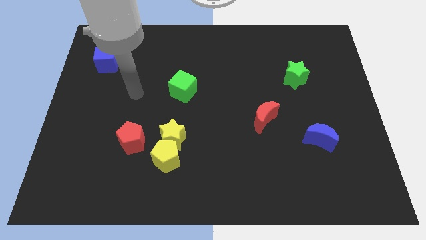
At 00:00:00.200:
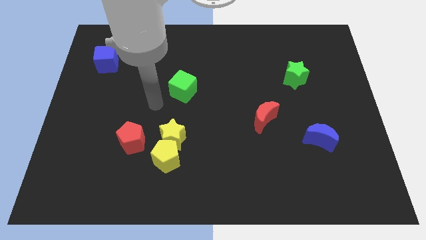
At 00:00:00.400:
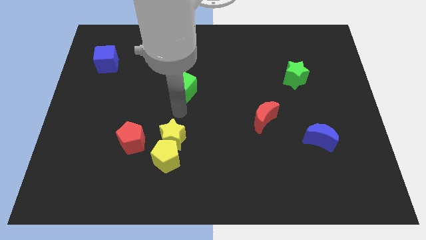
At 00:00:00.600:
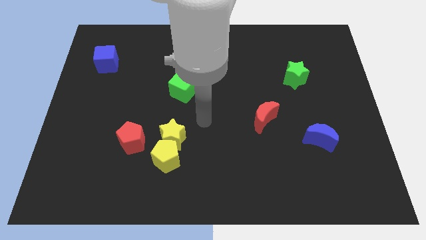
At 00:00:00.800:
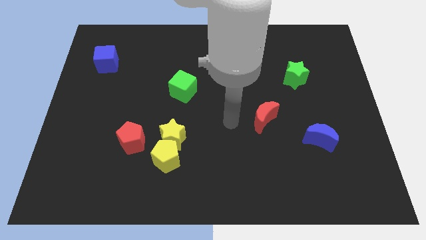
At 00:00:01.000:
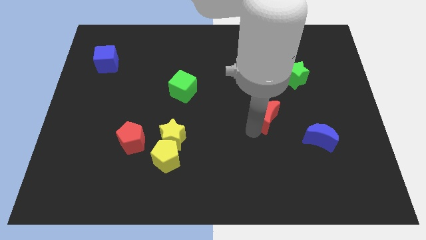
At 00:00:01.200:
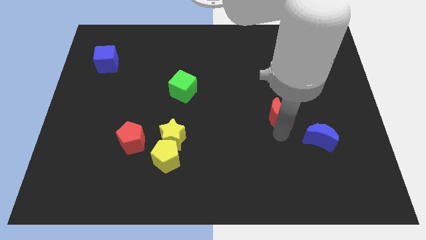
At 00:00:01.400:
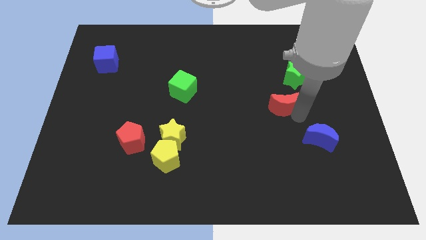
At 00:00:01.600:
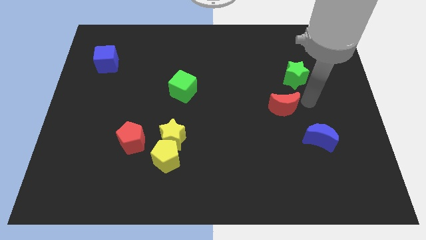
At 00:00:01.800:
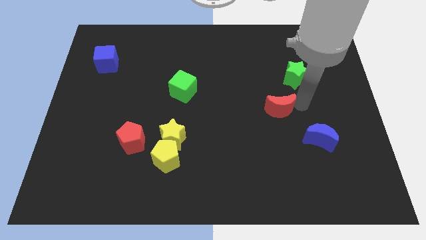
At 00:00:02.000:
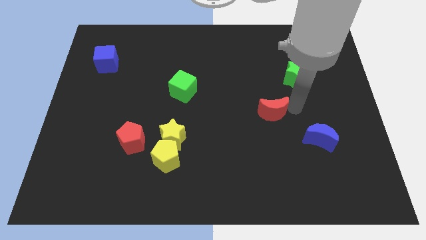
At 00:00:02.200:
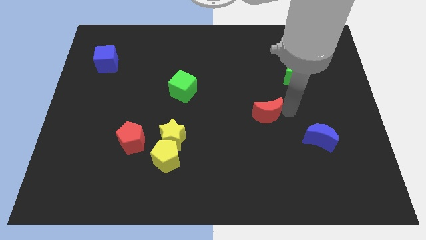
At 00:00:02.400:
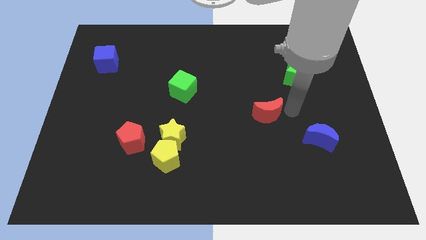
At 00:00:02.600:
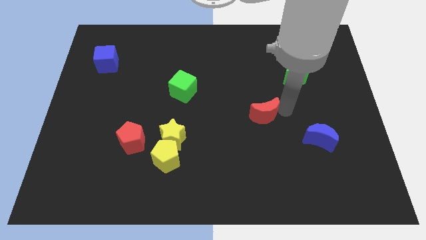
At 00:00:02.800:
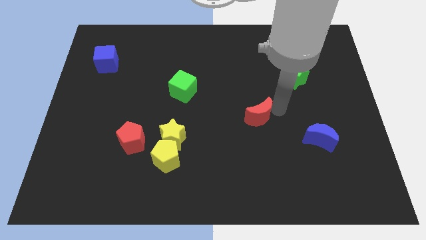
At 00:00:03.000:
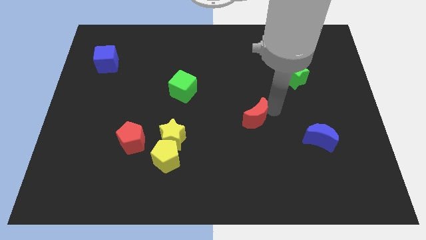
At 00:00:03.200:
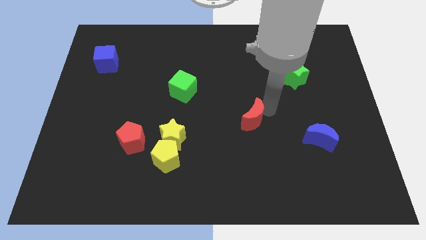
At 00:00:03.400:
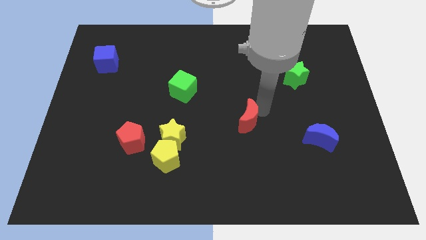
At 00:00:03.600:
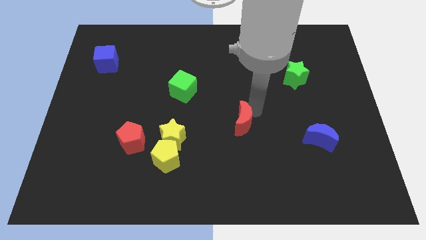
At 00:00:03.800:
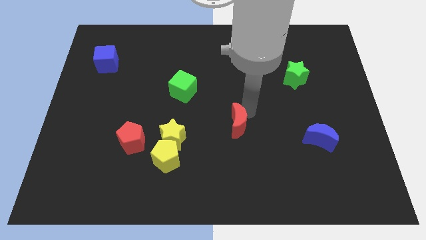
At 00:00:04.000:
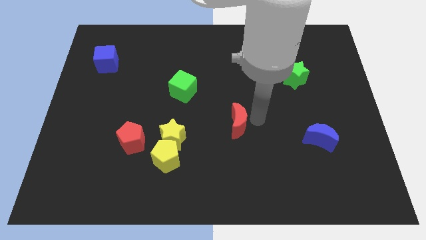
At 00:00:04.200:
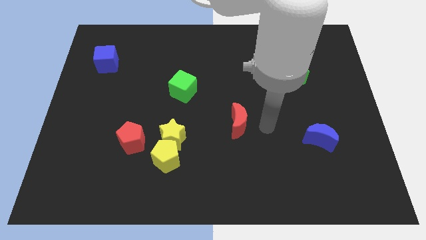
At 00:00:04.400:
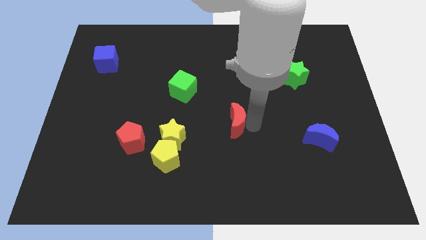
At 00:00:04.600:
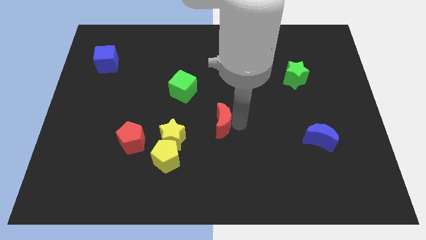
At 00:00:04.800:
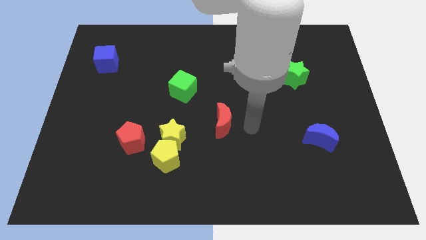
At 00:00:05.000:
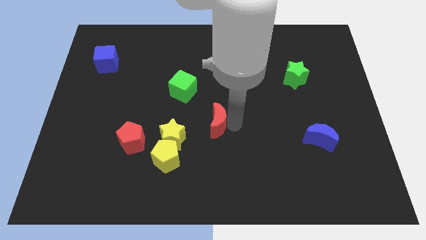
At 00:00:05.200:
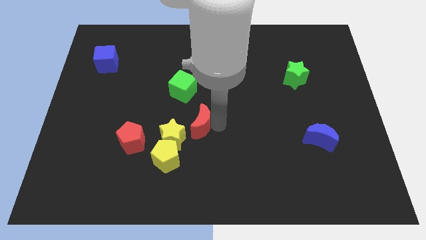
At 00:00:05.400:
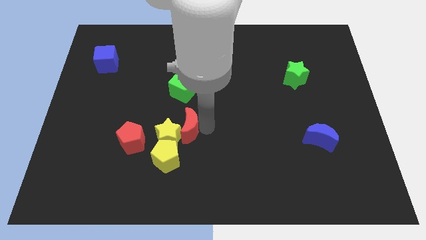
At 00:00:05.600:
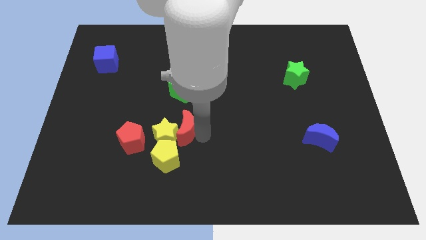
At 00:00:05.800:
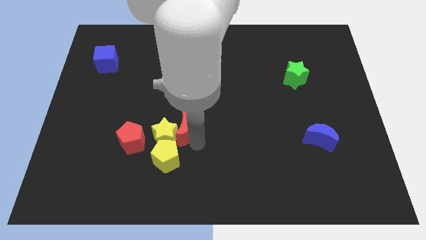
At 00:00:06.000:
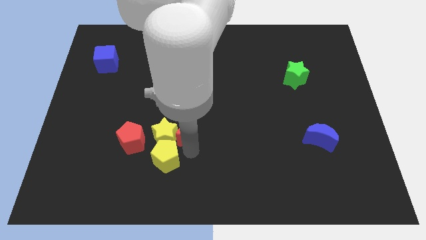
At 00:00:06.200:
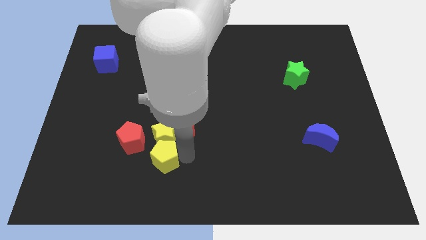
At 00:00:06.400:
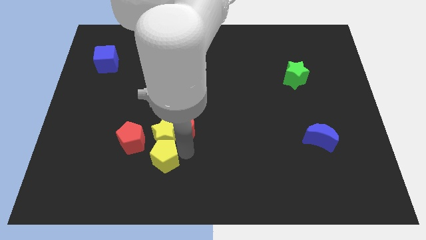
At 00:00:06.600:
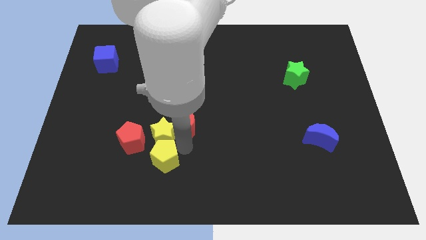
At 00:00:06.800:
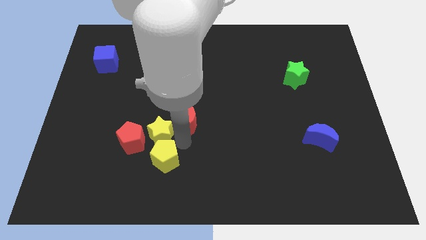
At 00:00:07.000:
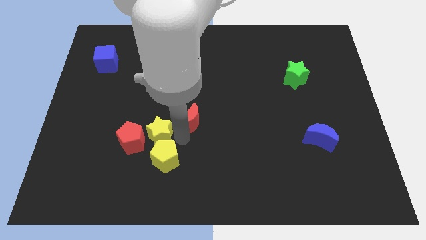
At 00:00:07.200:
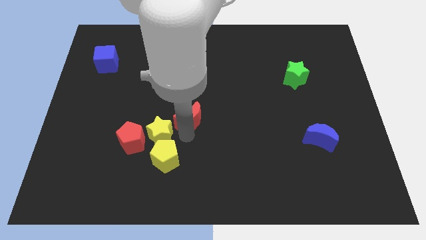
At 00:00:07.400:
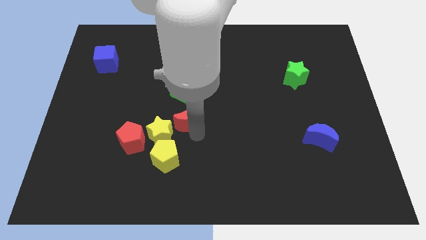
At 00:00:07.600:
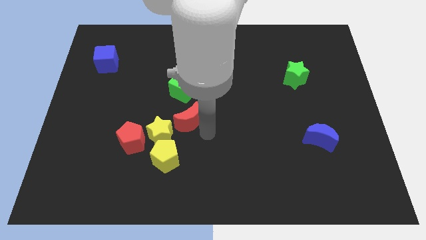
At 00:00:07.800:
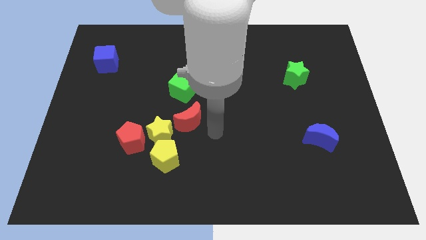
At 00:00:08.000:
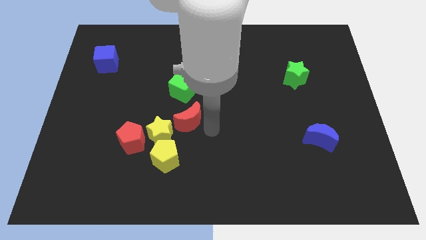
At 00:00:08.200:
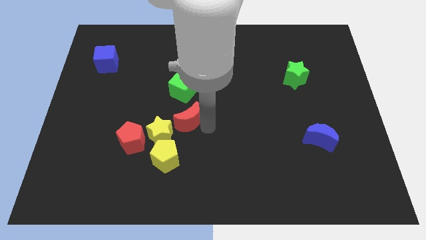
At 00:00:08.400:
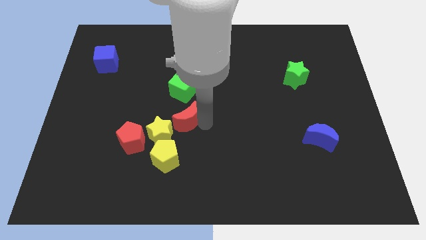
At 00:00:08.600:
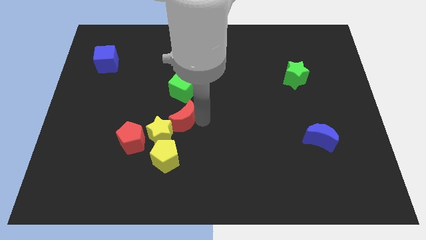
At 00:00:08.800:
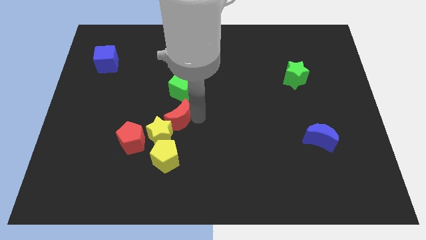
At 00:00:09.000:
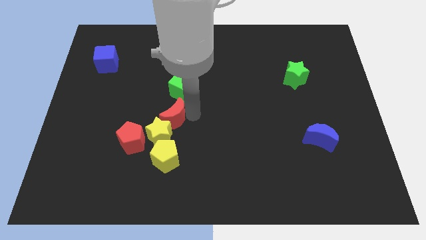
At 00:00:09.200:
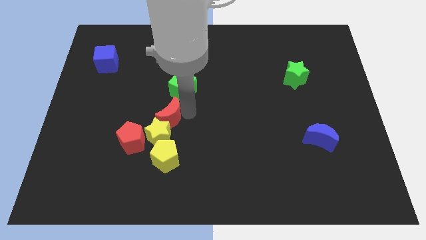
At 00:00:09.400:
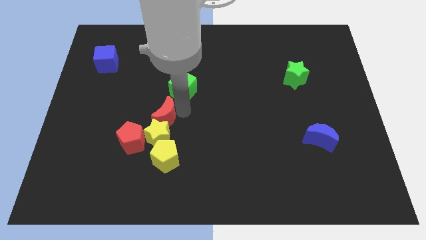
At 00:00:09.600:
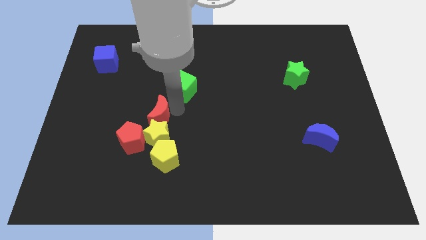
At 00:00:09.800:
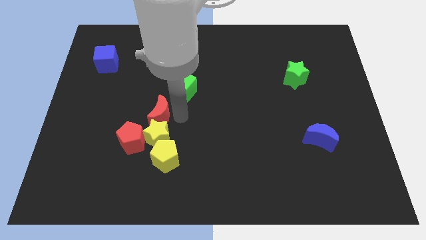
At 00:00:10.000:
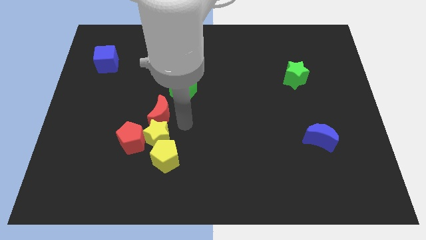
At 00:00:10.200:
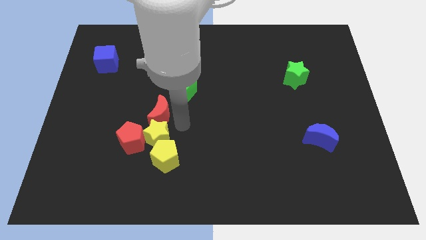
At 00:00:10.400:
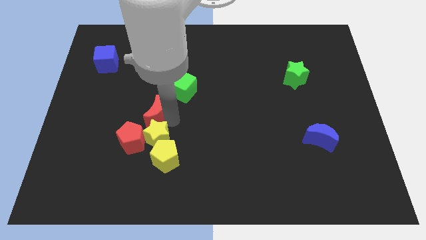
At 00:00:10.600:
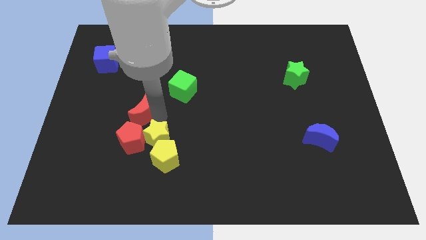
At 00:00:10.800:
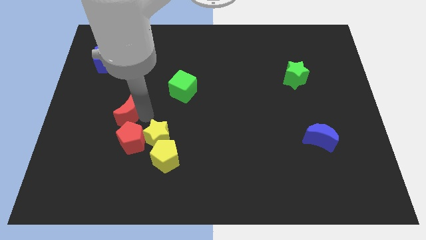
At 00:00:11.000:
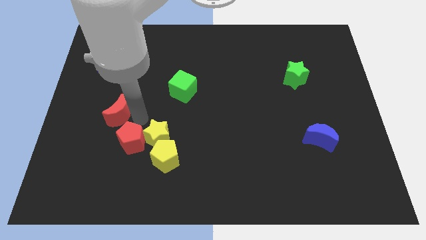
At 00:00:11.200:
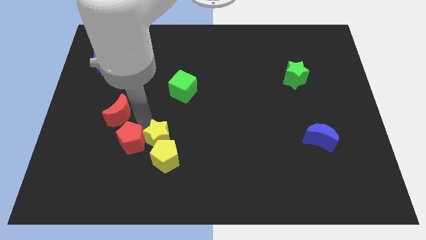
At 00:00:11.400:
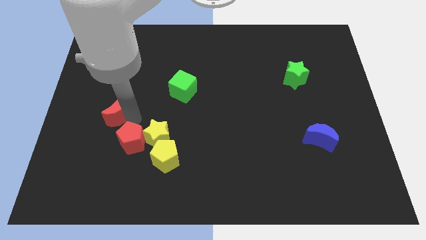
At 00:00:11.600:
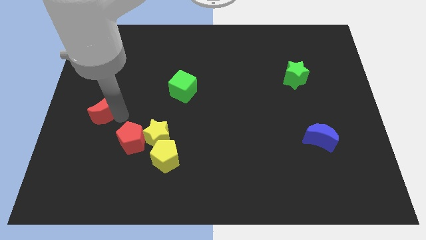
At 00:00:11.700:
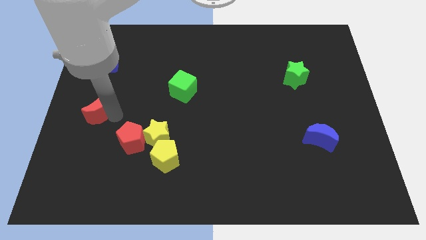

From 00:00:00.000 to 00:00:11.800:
put the red moon to the left side
